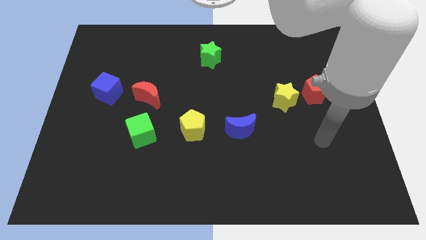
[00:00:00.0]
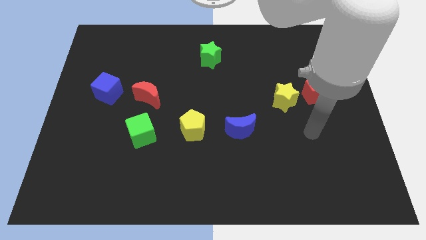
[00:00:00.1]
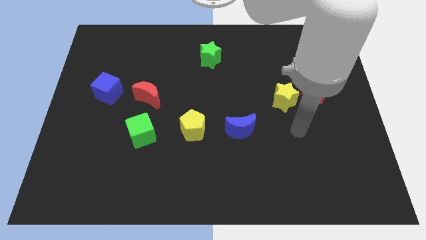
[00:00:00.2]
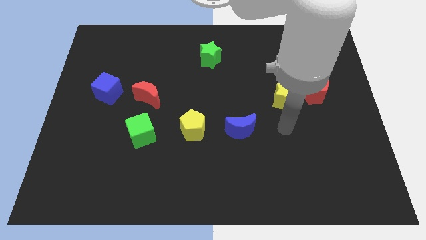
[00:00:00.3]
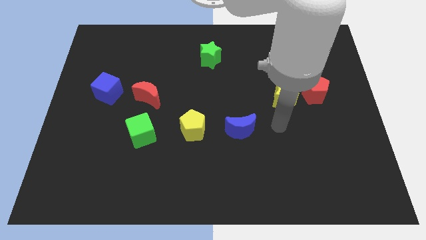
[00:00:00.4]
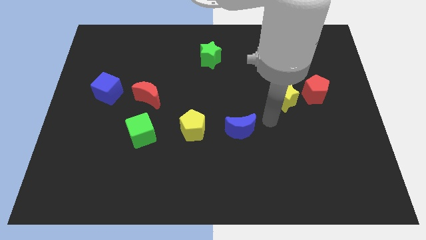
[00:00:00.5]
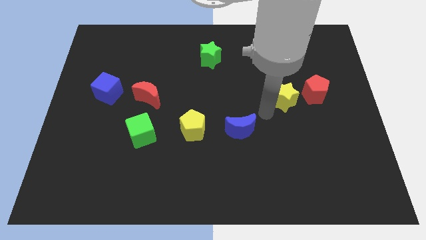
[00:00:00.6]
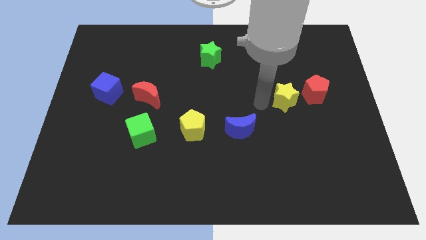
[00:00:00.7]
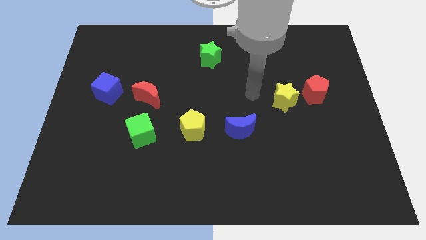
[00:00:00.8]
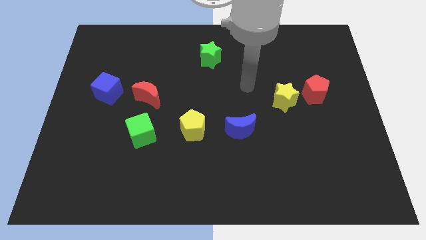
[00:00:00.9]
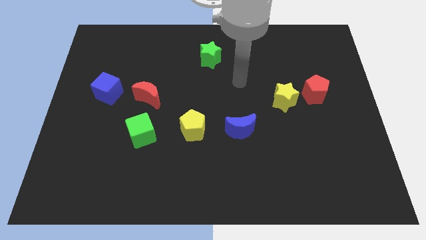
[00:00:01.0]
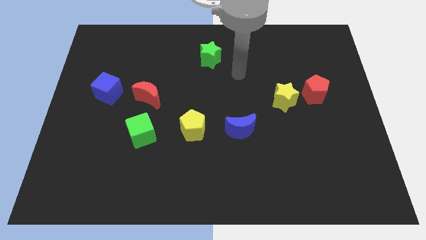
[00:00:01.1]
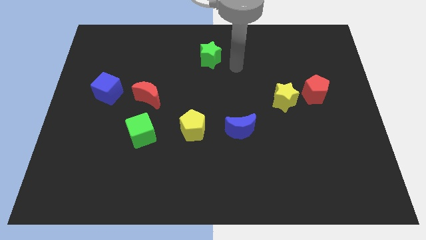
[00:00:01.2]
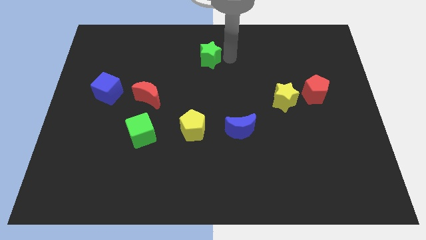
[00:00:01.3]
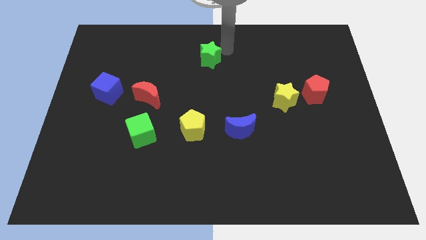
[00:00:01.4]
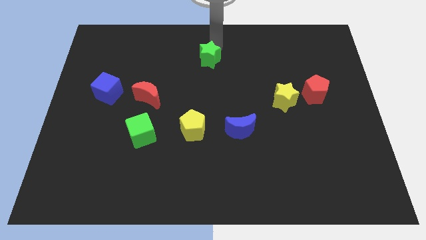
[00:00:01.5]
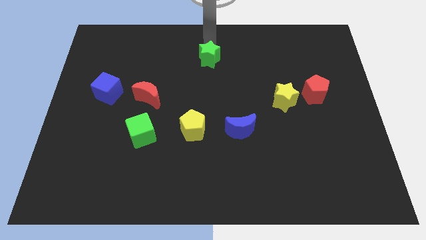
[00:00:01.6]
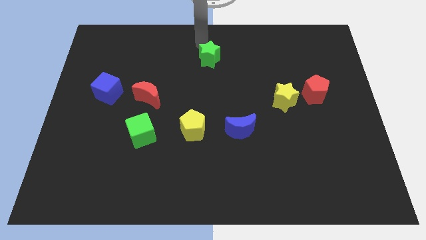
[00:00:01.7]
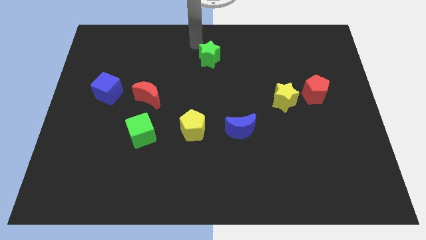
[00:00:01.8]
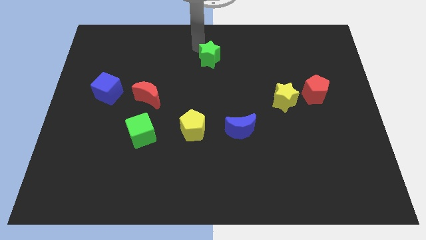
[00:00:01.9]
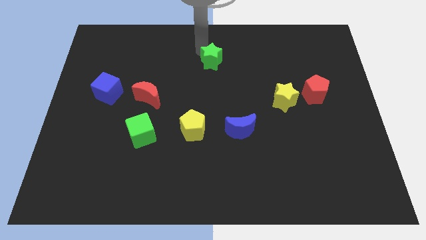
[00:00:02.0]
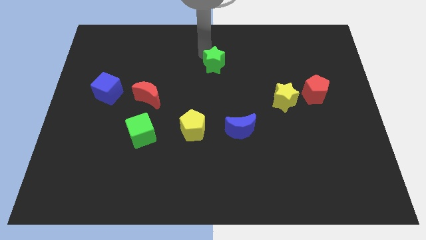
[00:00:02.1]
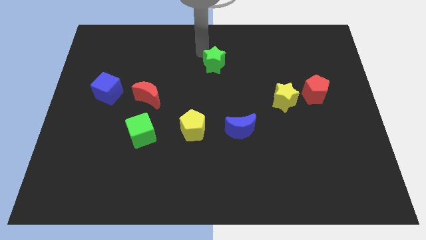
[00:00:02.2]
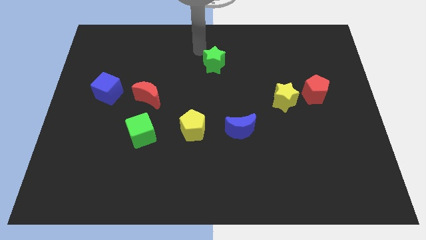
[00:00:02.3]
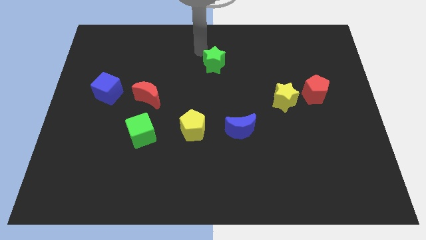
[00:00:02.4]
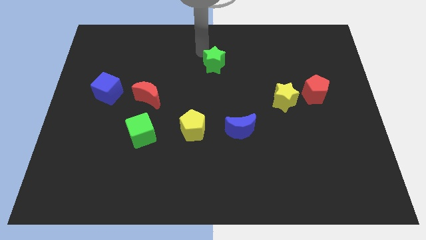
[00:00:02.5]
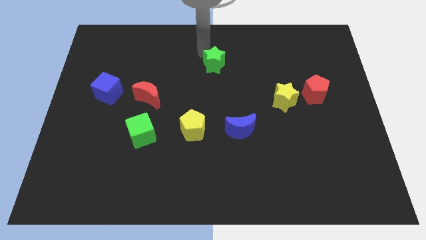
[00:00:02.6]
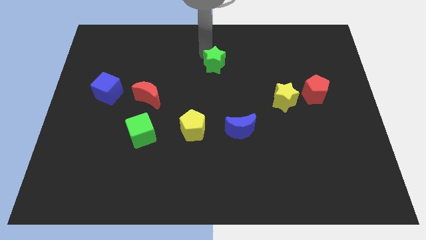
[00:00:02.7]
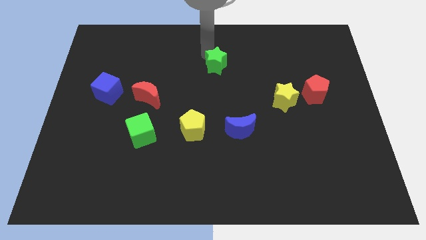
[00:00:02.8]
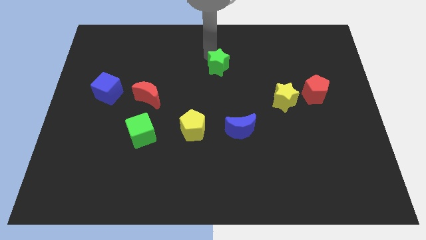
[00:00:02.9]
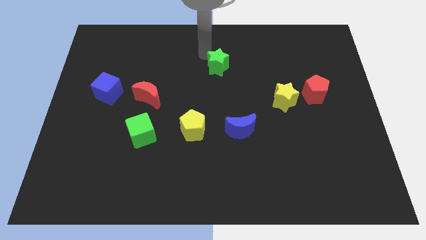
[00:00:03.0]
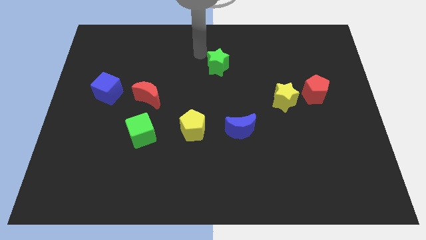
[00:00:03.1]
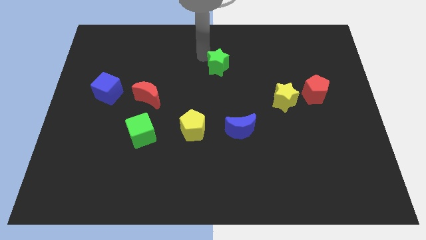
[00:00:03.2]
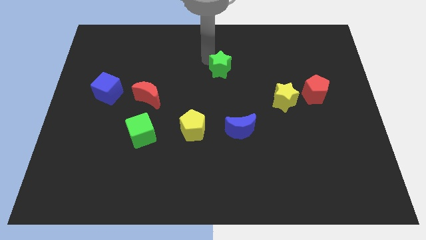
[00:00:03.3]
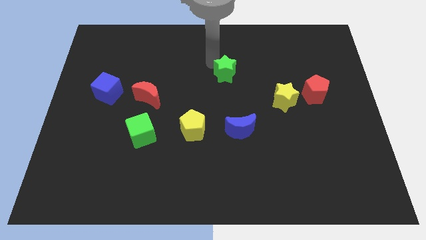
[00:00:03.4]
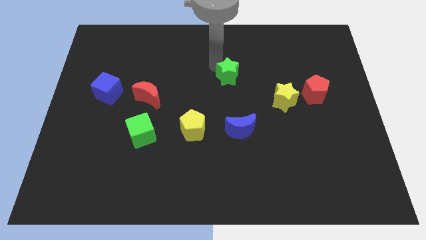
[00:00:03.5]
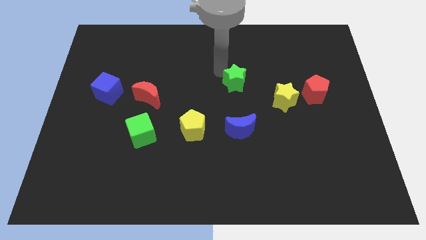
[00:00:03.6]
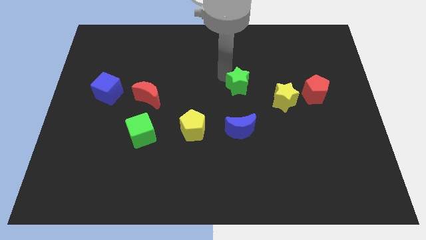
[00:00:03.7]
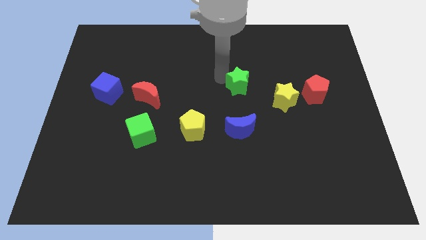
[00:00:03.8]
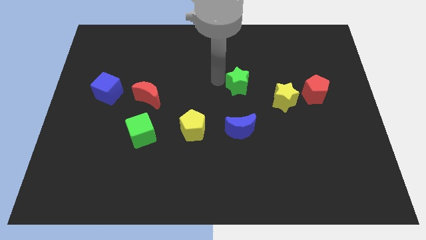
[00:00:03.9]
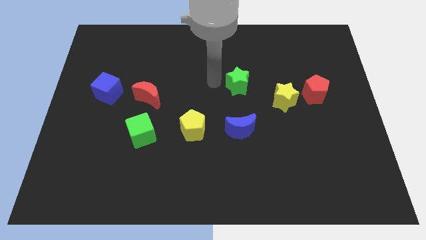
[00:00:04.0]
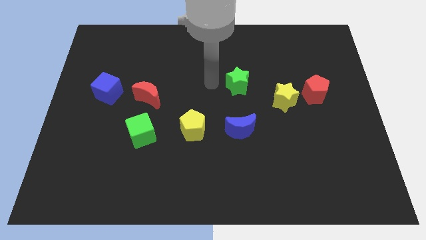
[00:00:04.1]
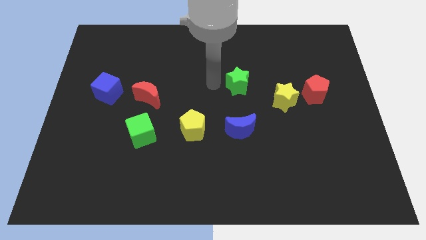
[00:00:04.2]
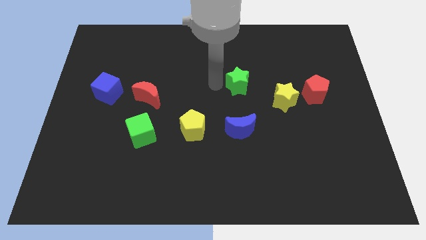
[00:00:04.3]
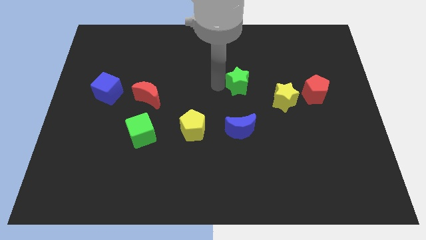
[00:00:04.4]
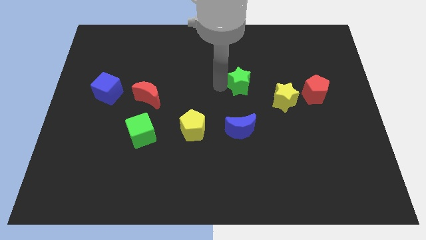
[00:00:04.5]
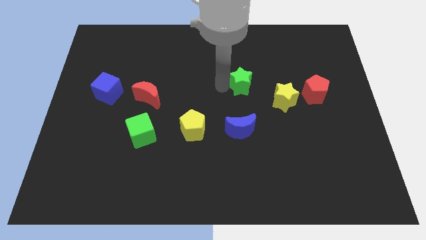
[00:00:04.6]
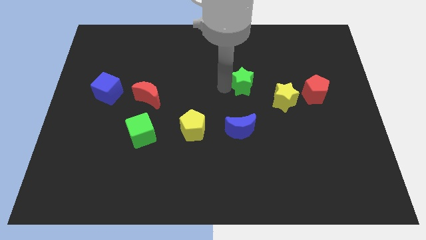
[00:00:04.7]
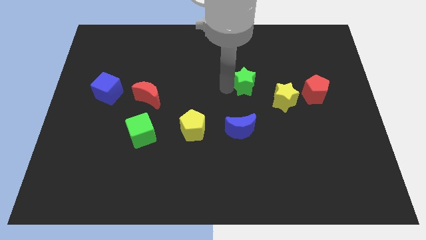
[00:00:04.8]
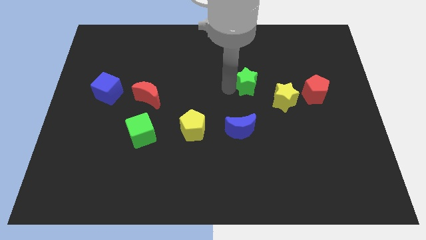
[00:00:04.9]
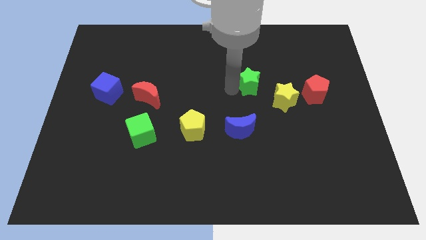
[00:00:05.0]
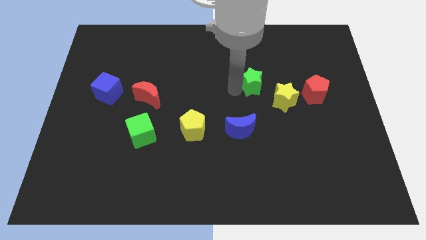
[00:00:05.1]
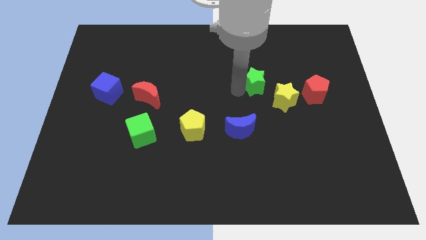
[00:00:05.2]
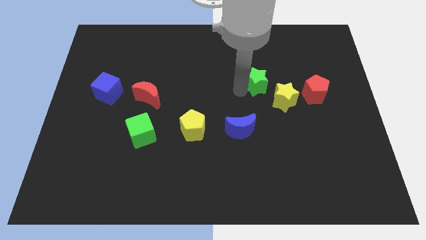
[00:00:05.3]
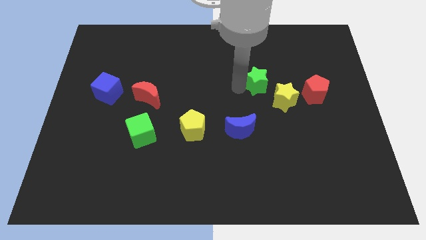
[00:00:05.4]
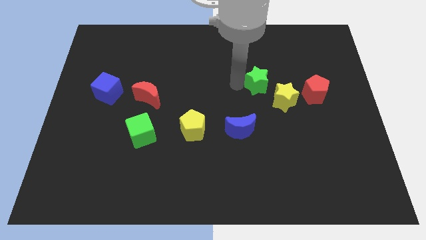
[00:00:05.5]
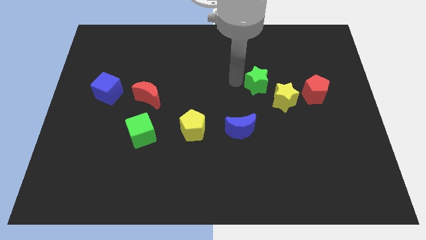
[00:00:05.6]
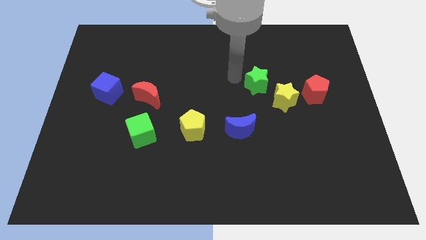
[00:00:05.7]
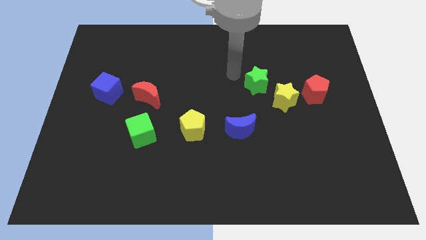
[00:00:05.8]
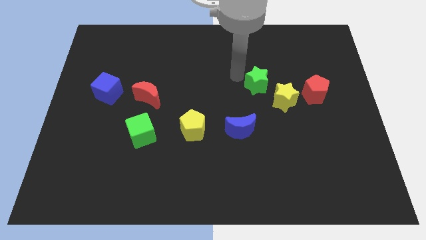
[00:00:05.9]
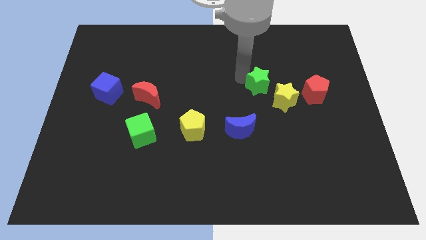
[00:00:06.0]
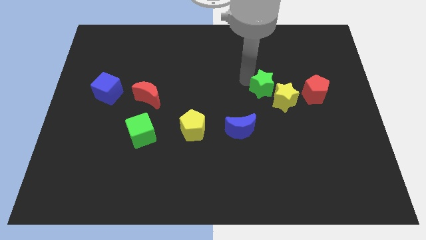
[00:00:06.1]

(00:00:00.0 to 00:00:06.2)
slide the green star to the yellow star

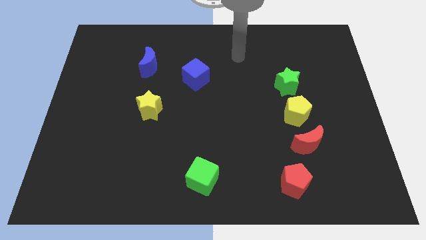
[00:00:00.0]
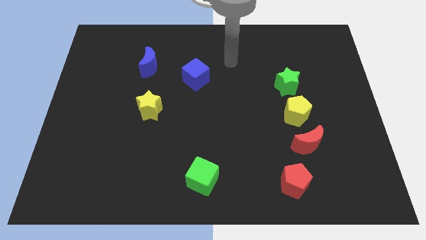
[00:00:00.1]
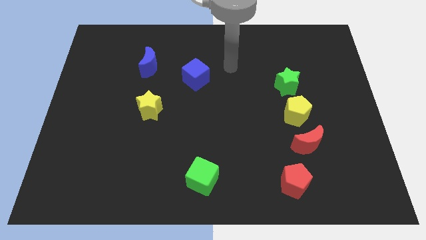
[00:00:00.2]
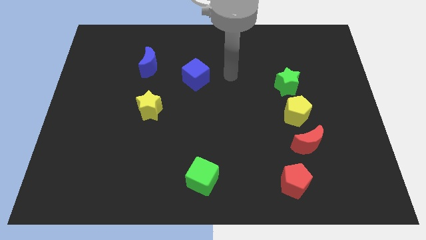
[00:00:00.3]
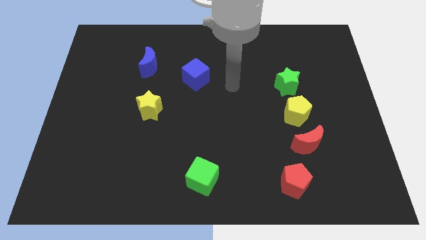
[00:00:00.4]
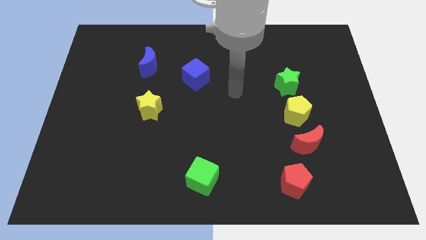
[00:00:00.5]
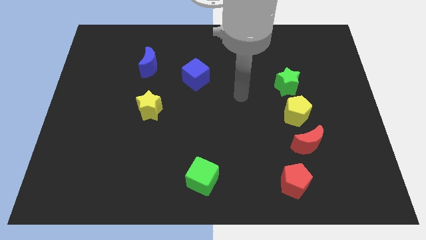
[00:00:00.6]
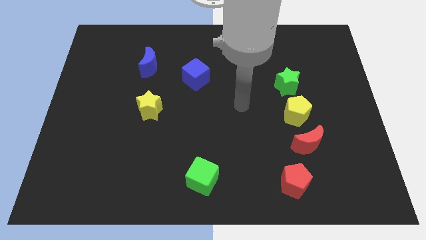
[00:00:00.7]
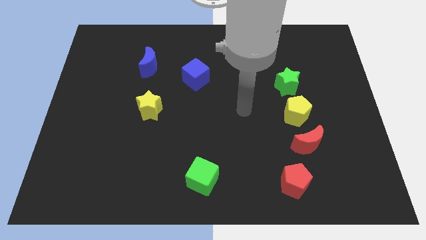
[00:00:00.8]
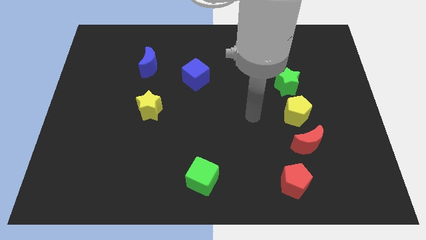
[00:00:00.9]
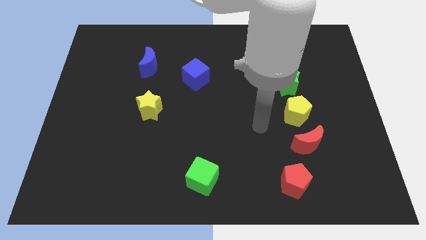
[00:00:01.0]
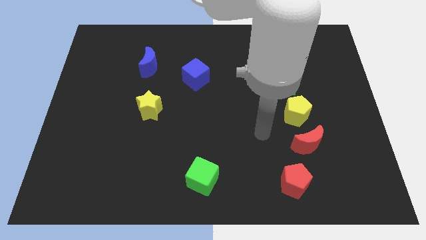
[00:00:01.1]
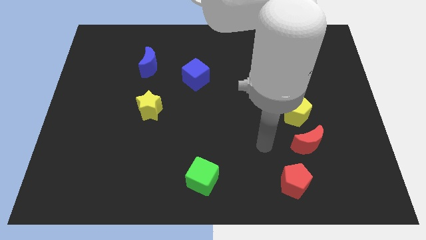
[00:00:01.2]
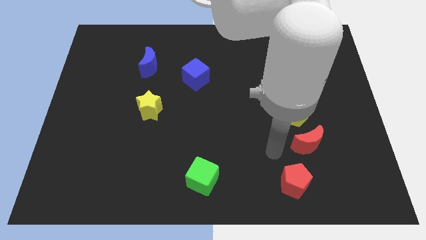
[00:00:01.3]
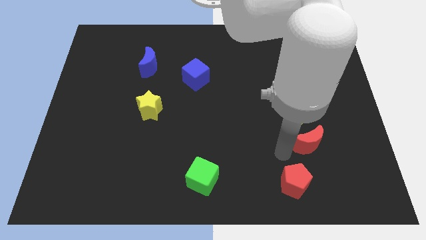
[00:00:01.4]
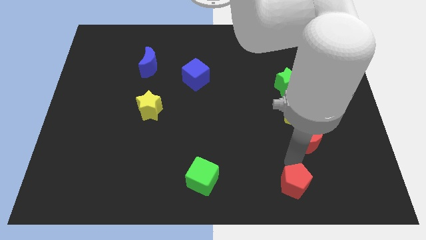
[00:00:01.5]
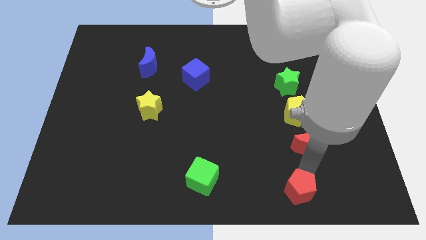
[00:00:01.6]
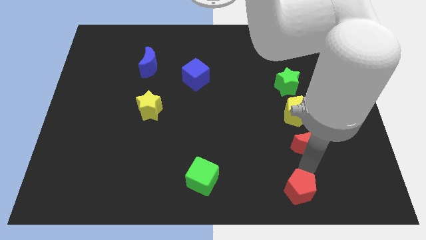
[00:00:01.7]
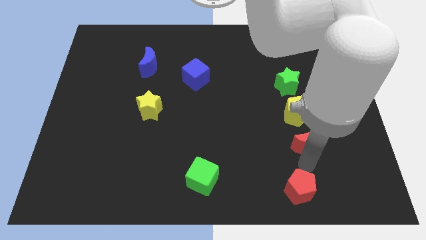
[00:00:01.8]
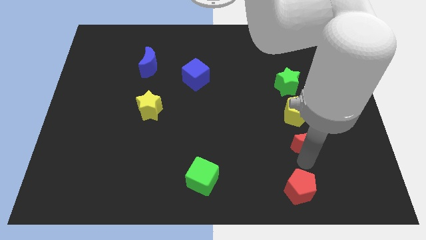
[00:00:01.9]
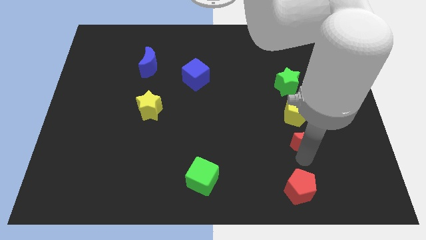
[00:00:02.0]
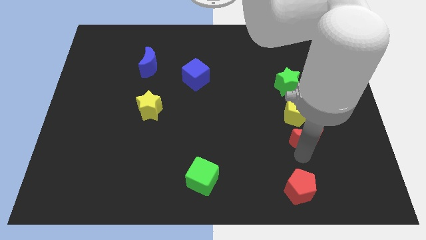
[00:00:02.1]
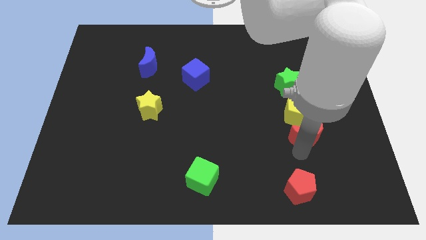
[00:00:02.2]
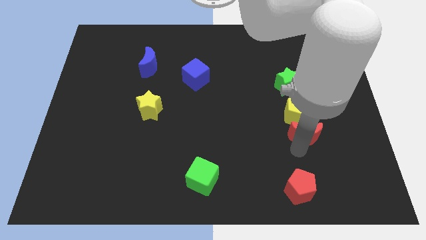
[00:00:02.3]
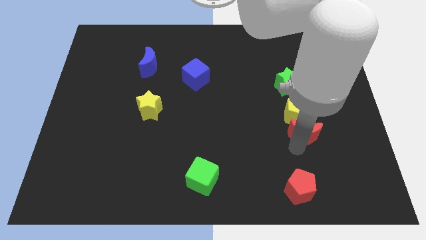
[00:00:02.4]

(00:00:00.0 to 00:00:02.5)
move the red moon to the yellow pentagon
